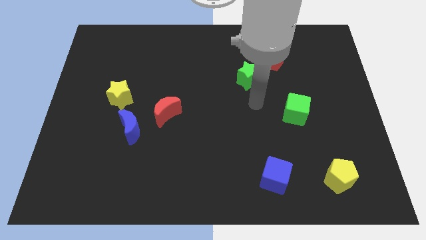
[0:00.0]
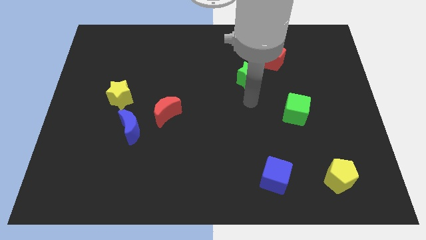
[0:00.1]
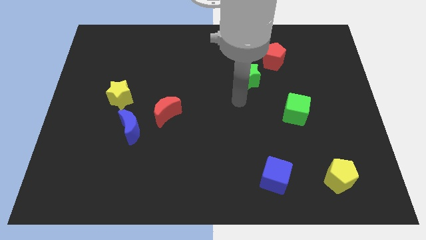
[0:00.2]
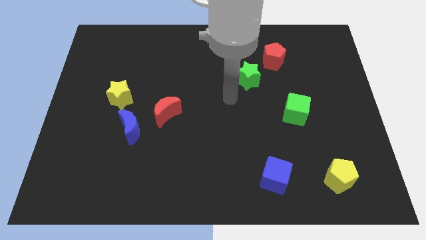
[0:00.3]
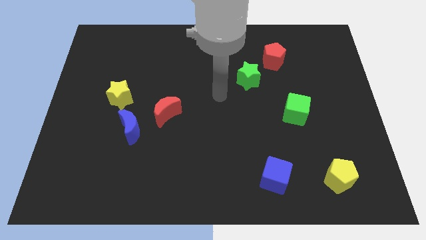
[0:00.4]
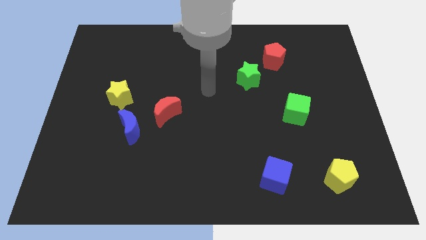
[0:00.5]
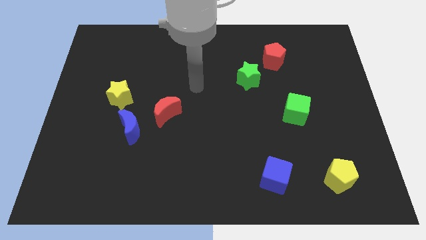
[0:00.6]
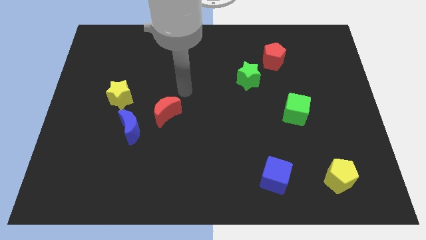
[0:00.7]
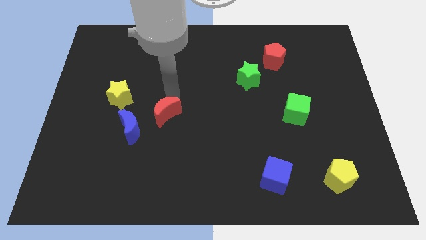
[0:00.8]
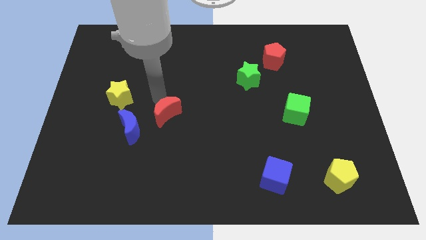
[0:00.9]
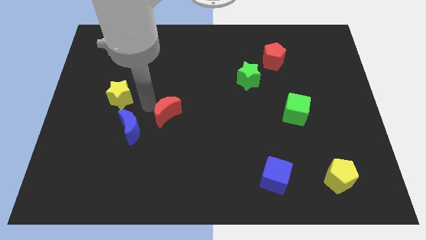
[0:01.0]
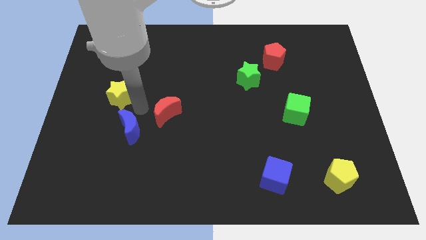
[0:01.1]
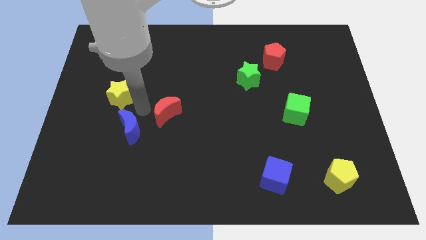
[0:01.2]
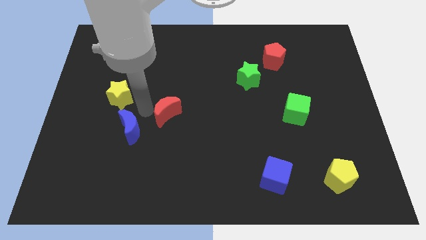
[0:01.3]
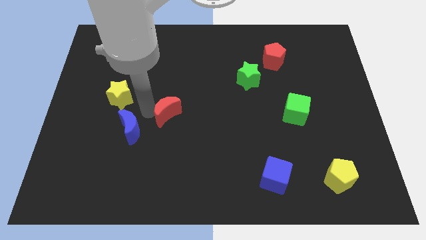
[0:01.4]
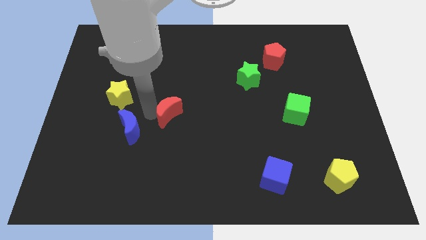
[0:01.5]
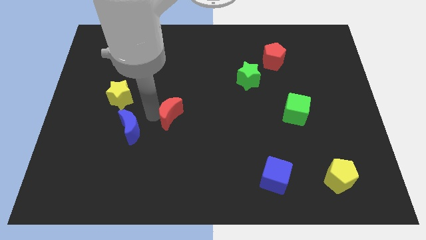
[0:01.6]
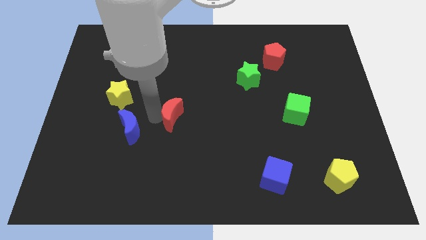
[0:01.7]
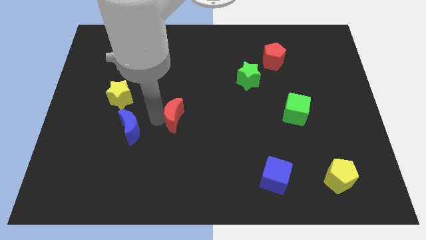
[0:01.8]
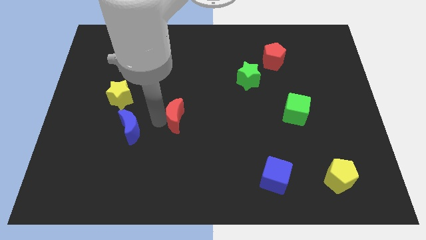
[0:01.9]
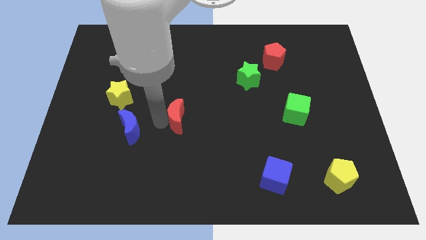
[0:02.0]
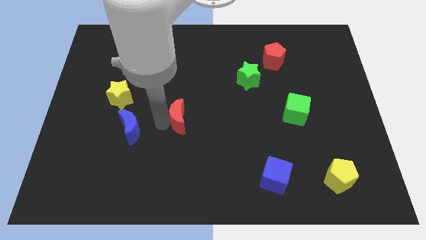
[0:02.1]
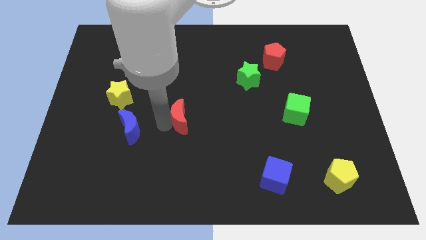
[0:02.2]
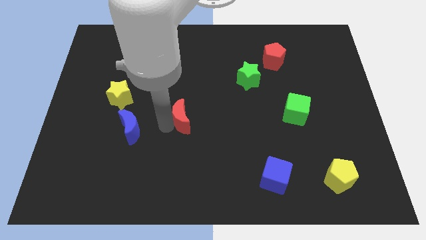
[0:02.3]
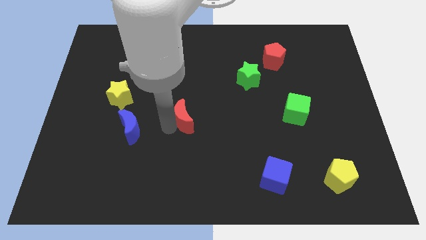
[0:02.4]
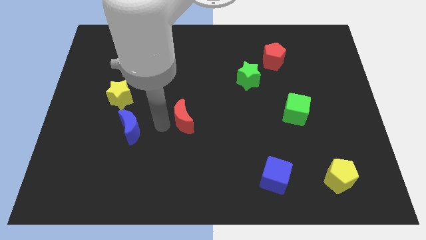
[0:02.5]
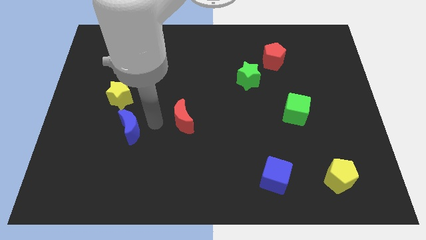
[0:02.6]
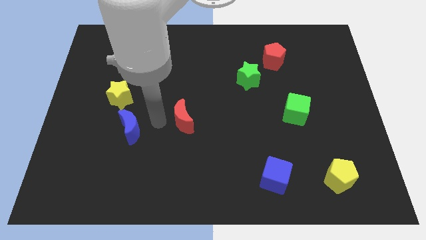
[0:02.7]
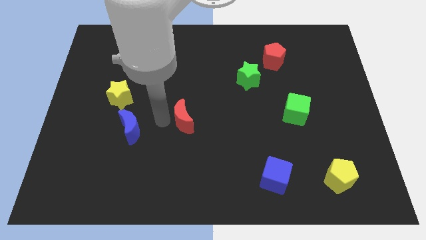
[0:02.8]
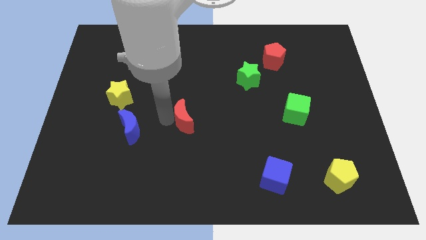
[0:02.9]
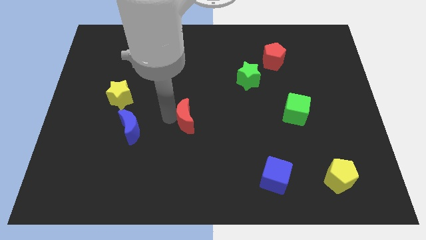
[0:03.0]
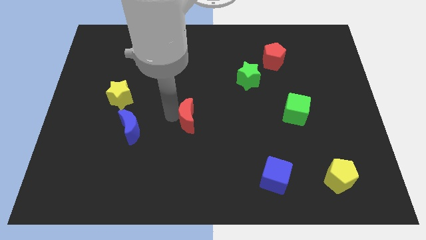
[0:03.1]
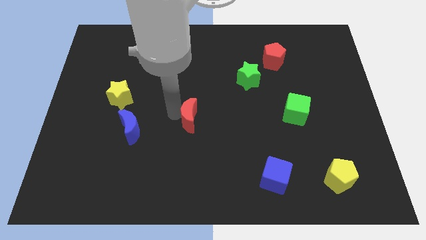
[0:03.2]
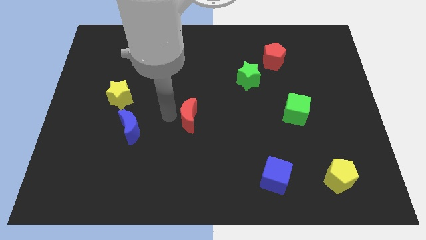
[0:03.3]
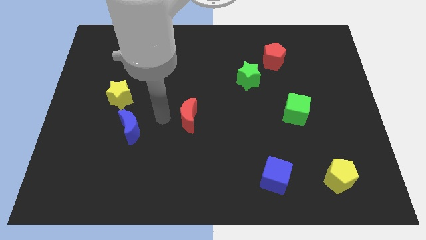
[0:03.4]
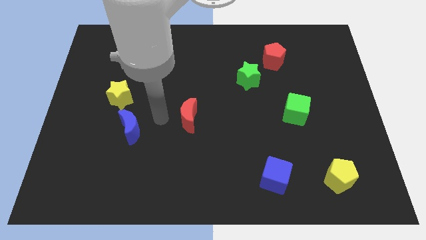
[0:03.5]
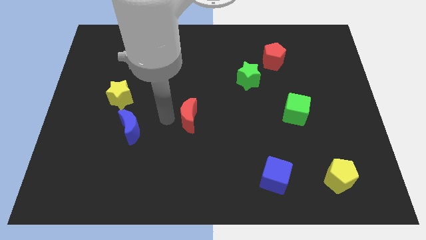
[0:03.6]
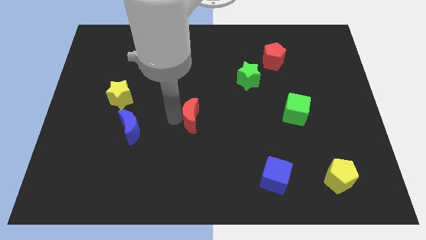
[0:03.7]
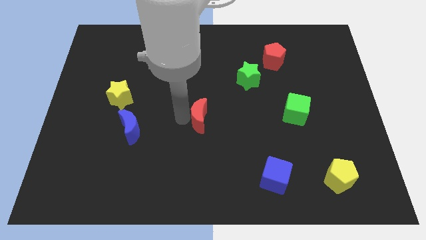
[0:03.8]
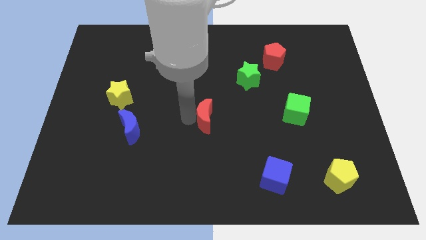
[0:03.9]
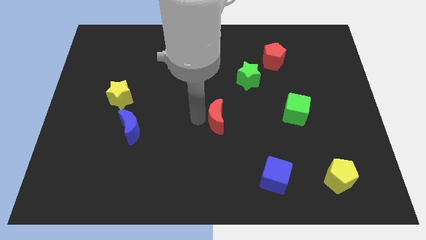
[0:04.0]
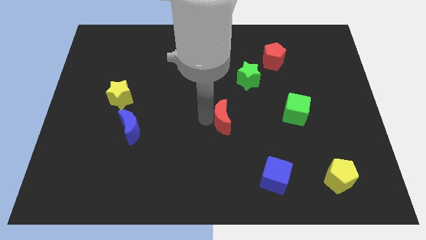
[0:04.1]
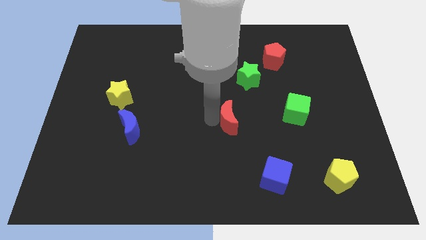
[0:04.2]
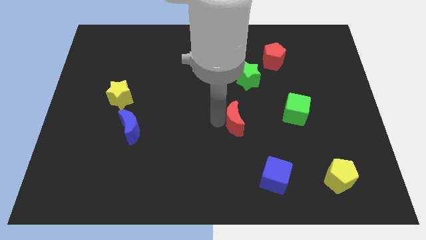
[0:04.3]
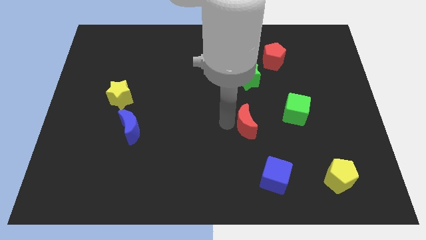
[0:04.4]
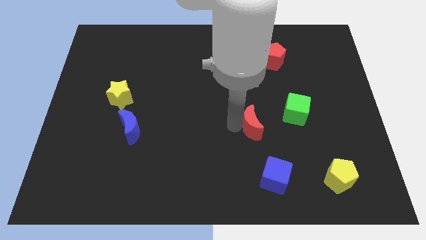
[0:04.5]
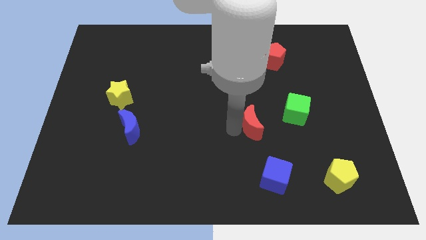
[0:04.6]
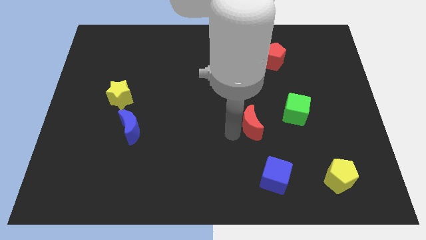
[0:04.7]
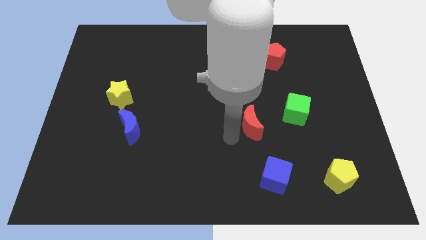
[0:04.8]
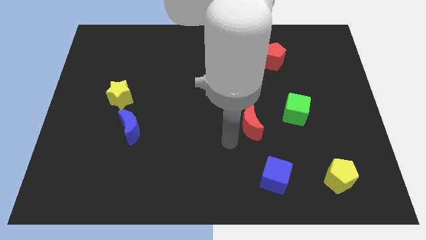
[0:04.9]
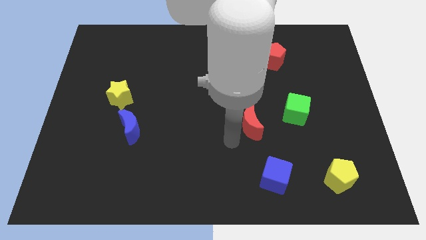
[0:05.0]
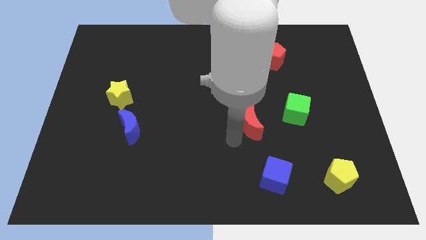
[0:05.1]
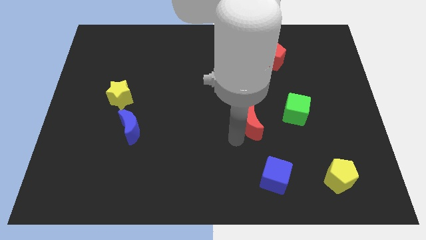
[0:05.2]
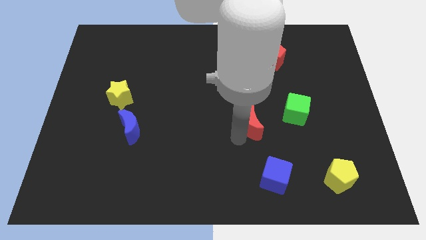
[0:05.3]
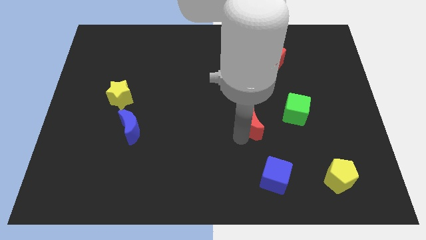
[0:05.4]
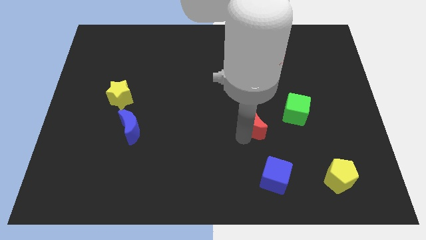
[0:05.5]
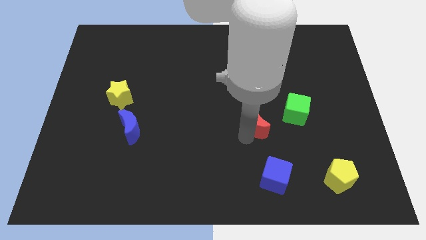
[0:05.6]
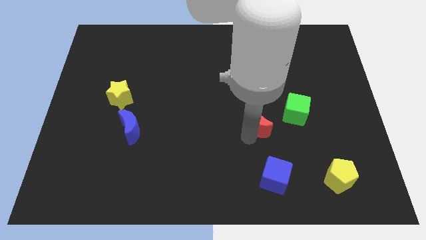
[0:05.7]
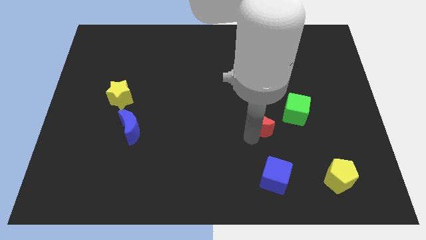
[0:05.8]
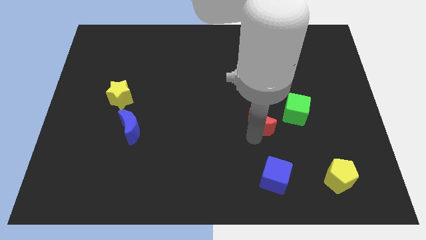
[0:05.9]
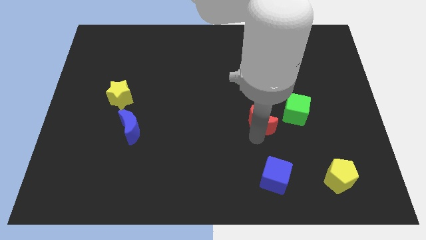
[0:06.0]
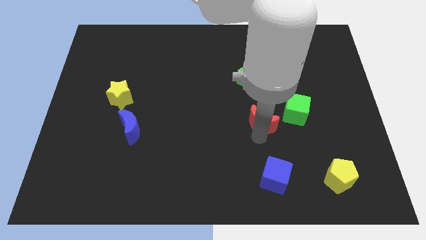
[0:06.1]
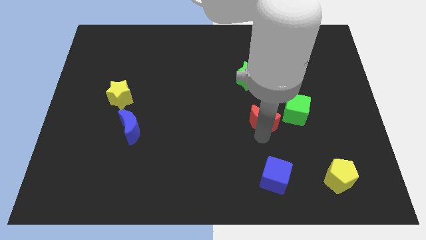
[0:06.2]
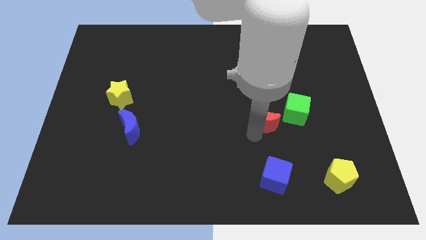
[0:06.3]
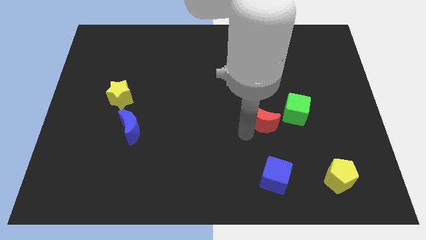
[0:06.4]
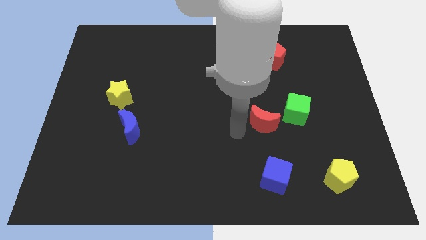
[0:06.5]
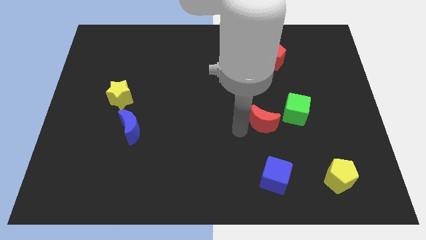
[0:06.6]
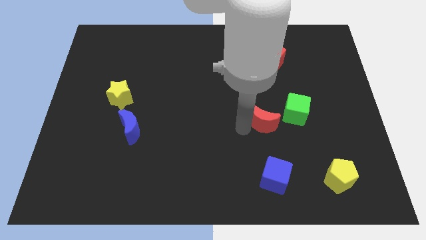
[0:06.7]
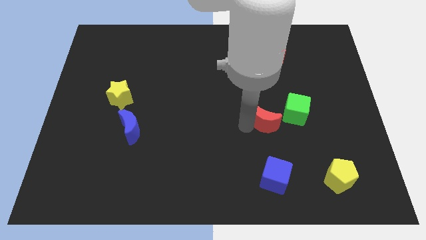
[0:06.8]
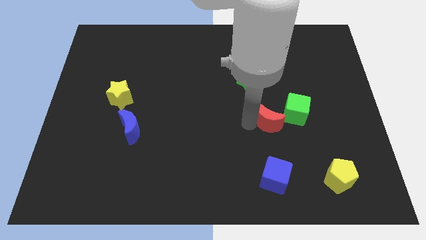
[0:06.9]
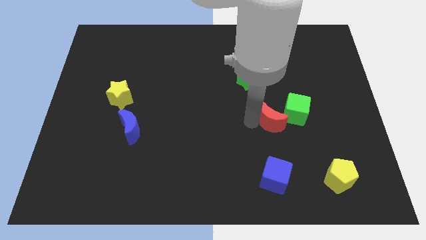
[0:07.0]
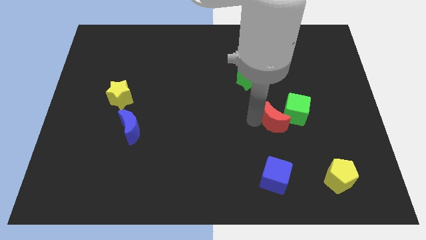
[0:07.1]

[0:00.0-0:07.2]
push the red moon to the green cube

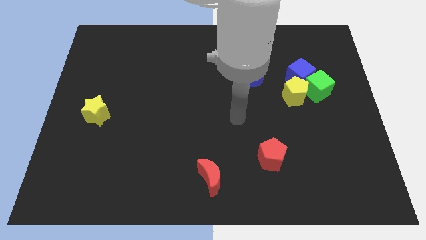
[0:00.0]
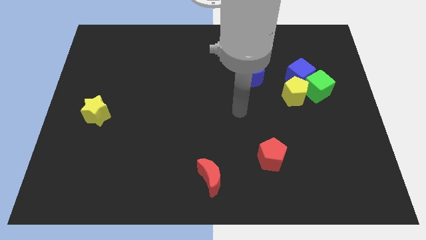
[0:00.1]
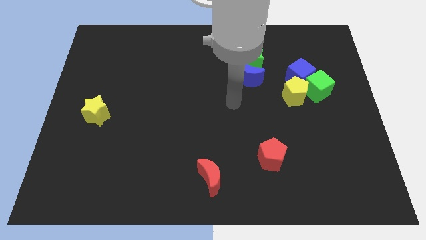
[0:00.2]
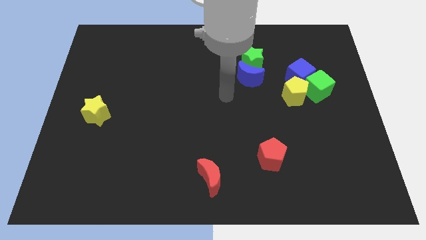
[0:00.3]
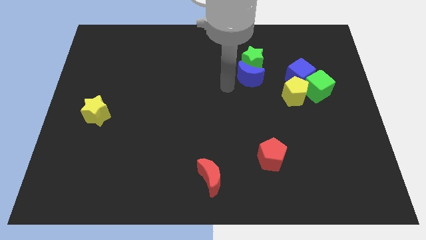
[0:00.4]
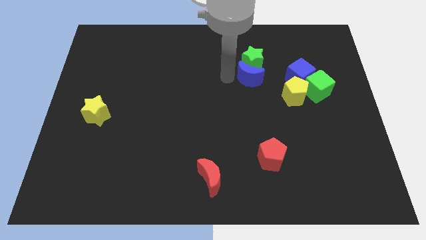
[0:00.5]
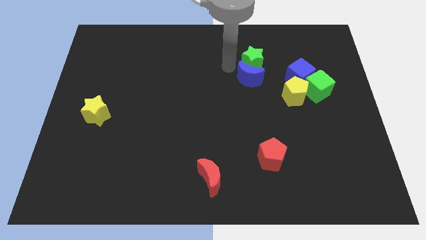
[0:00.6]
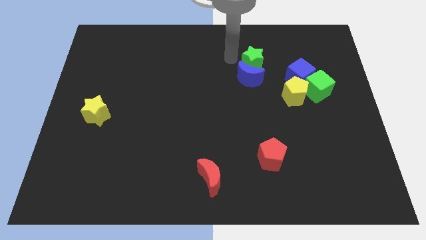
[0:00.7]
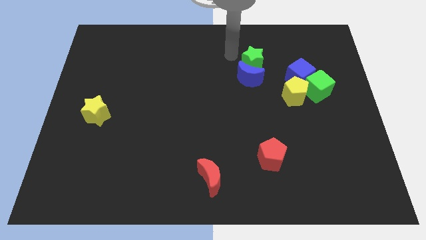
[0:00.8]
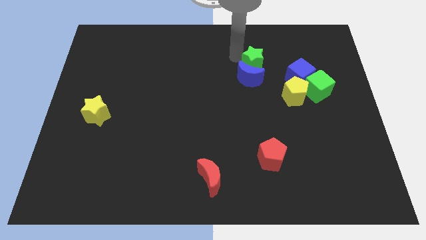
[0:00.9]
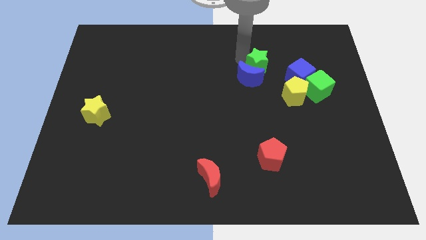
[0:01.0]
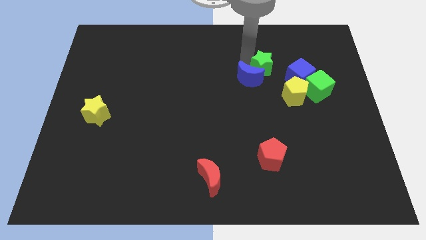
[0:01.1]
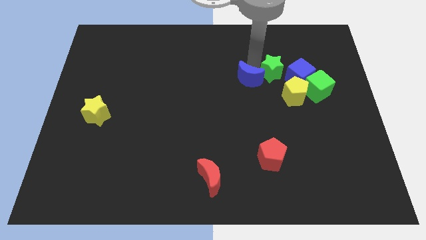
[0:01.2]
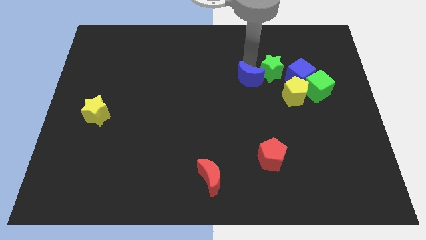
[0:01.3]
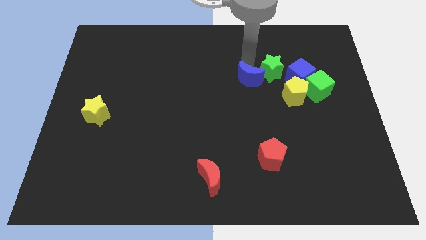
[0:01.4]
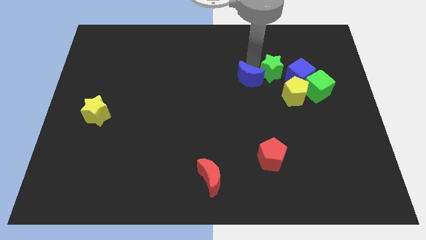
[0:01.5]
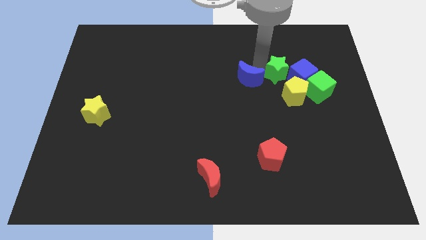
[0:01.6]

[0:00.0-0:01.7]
slide the green star close to the blue cube
